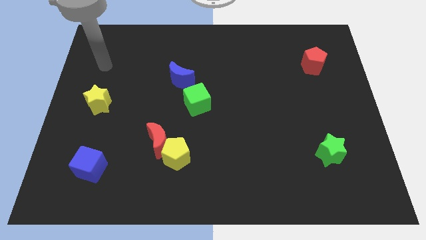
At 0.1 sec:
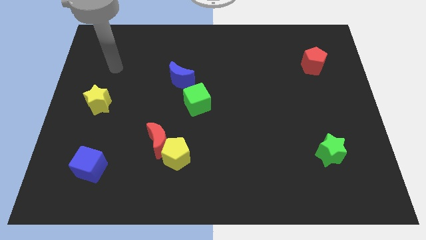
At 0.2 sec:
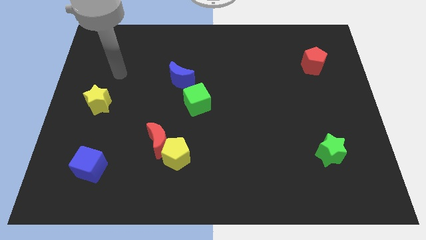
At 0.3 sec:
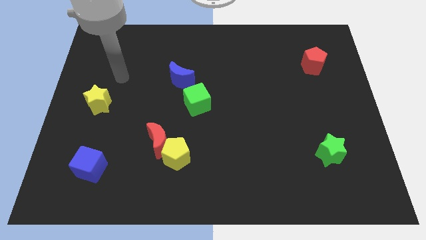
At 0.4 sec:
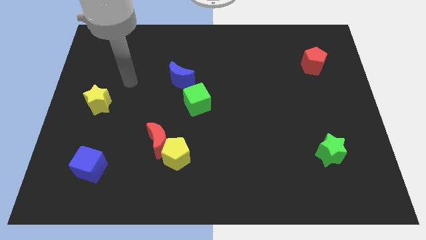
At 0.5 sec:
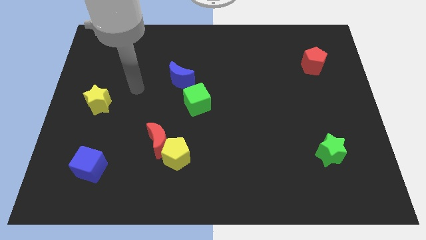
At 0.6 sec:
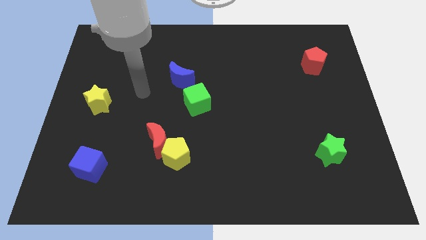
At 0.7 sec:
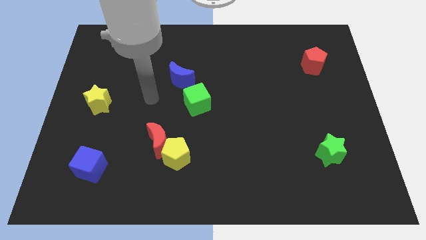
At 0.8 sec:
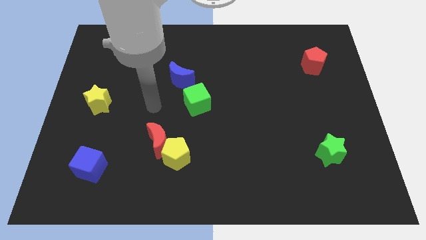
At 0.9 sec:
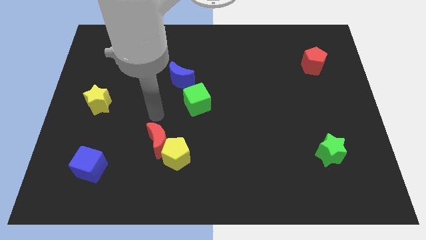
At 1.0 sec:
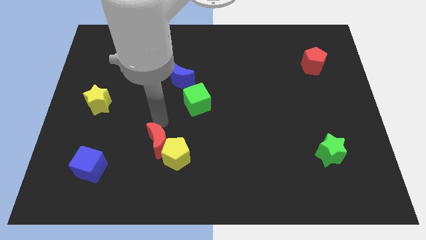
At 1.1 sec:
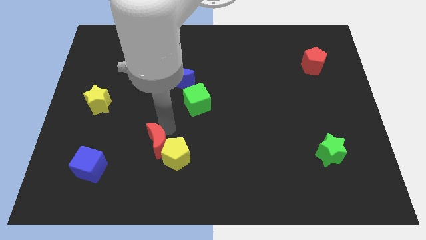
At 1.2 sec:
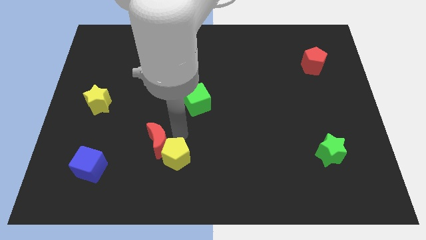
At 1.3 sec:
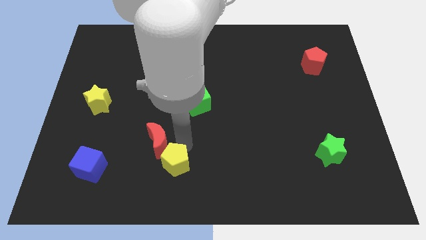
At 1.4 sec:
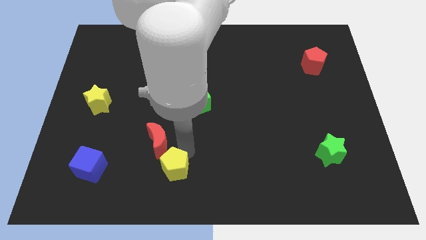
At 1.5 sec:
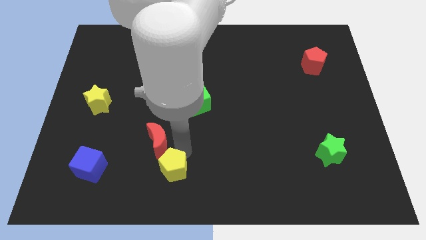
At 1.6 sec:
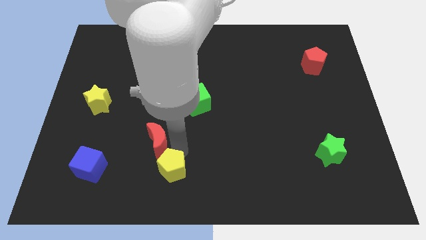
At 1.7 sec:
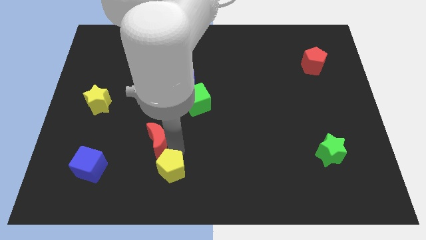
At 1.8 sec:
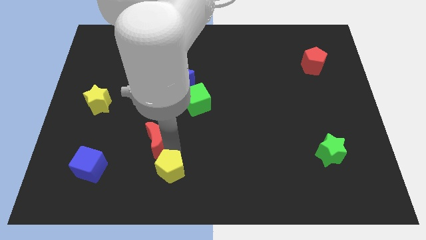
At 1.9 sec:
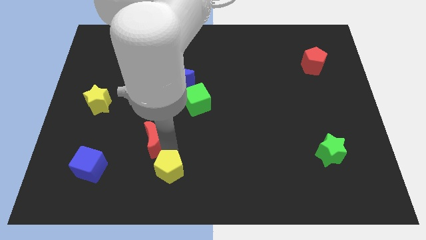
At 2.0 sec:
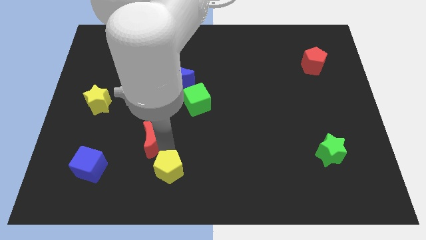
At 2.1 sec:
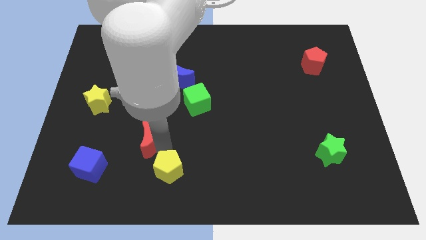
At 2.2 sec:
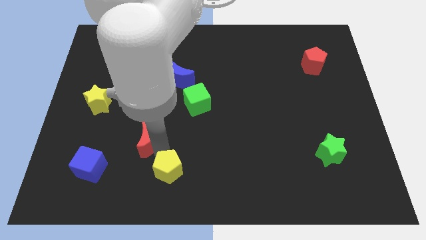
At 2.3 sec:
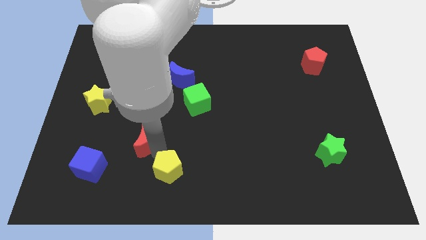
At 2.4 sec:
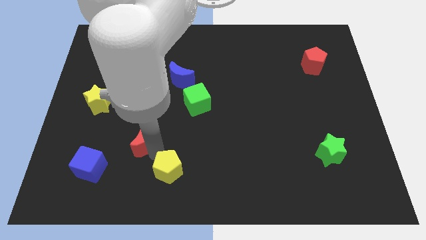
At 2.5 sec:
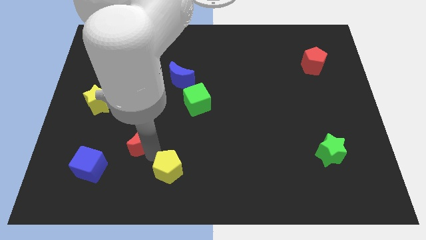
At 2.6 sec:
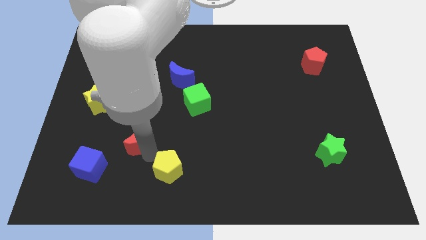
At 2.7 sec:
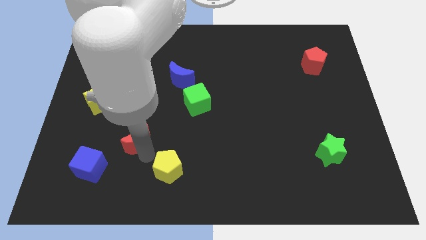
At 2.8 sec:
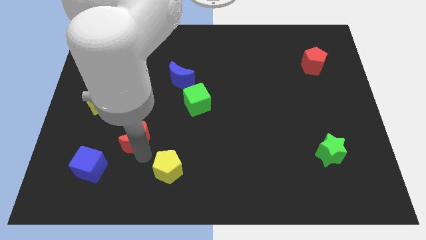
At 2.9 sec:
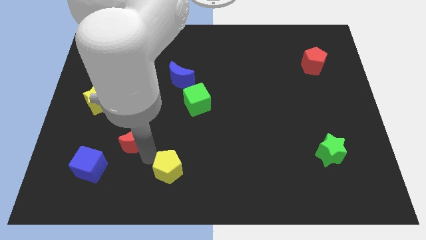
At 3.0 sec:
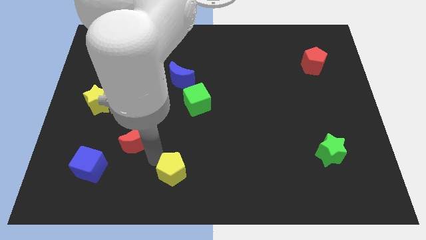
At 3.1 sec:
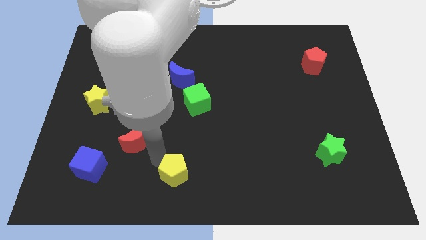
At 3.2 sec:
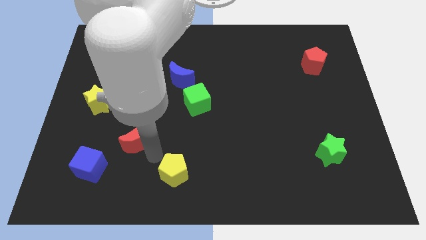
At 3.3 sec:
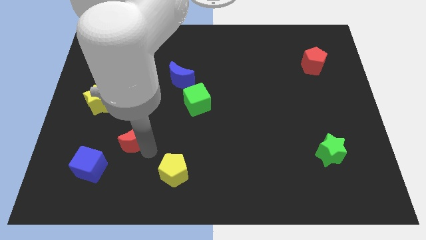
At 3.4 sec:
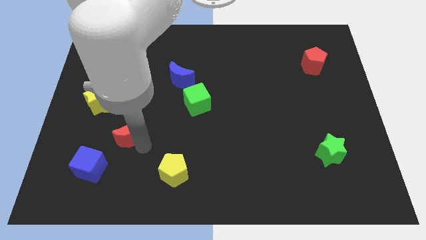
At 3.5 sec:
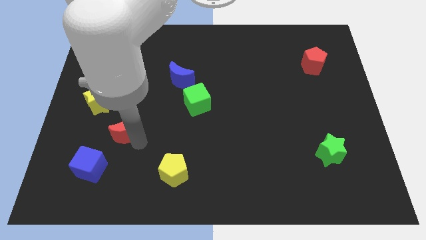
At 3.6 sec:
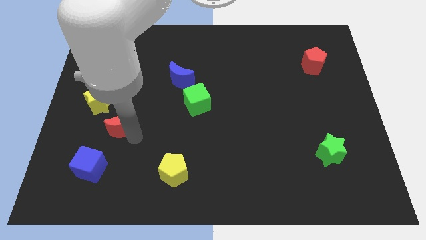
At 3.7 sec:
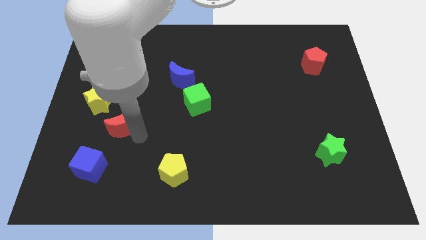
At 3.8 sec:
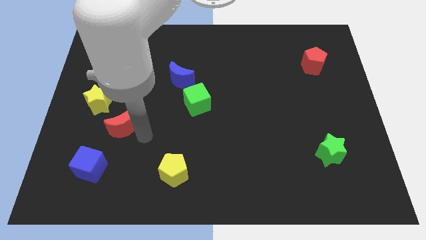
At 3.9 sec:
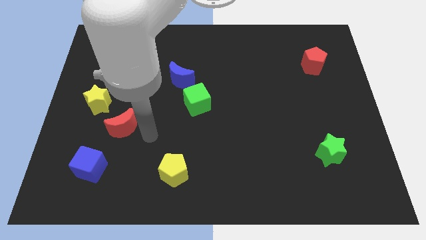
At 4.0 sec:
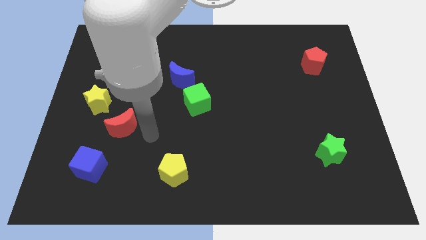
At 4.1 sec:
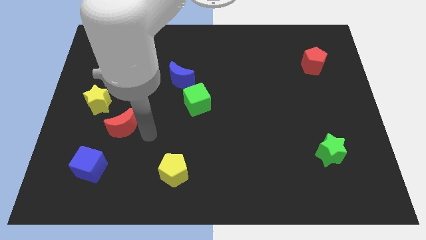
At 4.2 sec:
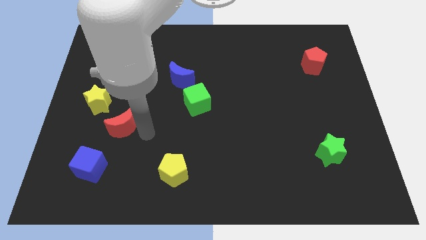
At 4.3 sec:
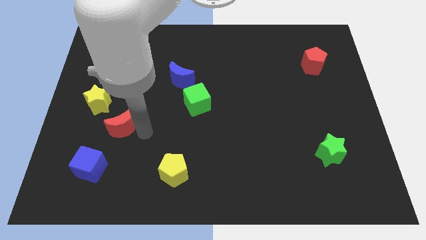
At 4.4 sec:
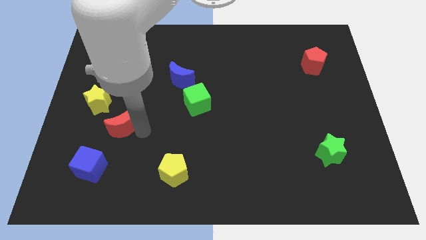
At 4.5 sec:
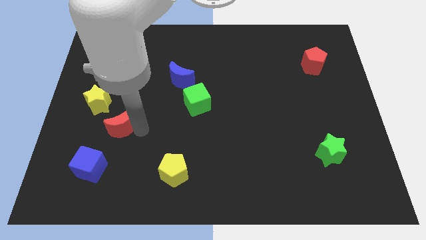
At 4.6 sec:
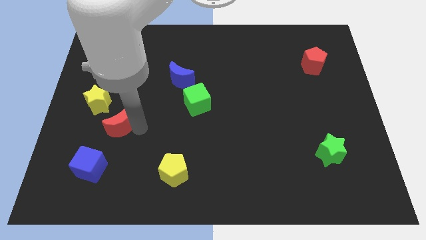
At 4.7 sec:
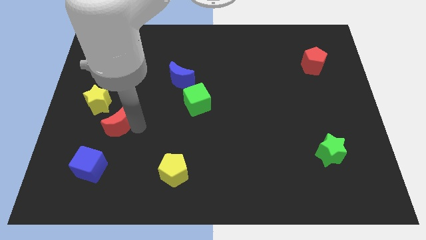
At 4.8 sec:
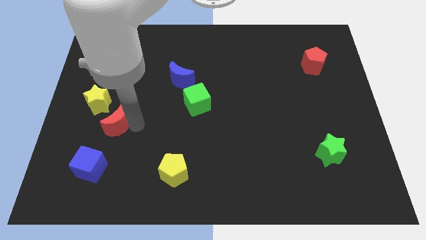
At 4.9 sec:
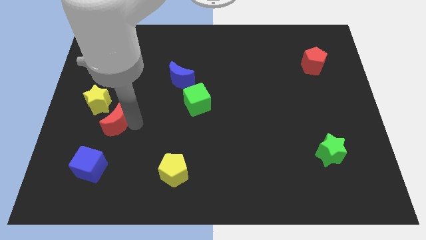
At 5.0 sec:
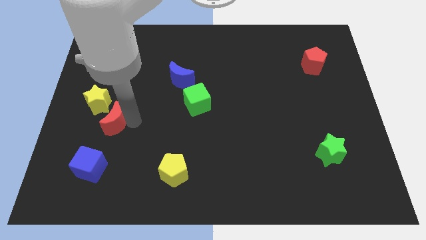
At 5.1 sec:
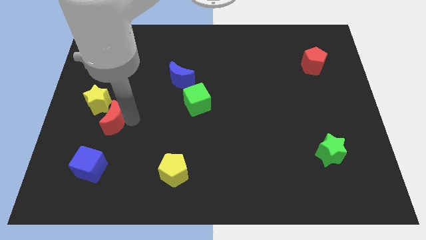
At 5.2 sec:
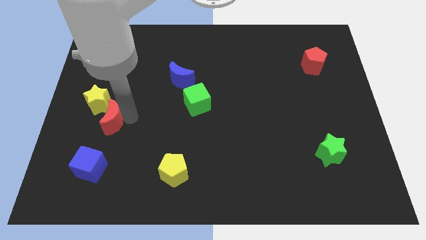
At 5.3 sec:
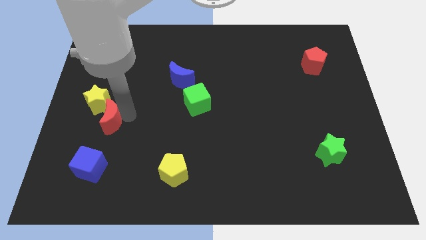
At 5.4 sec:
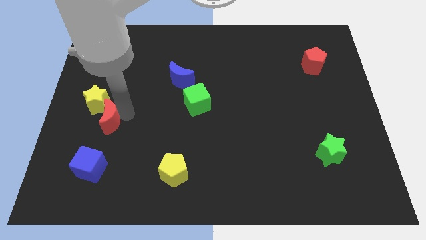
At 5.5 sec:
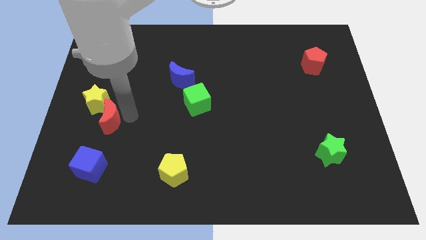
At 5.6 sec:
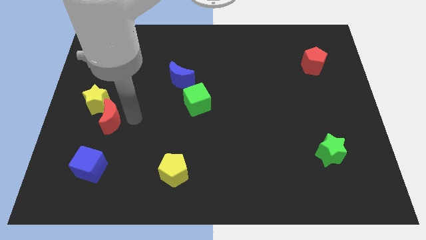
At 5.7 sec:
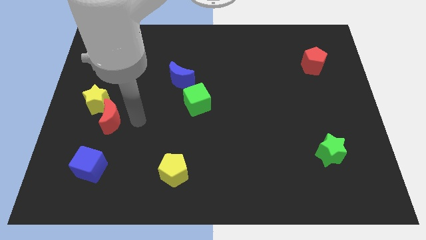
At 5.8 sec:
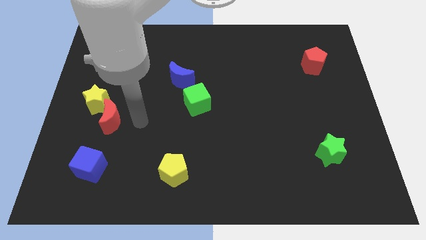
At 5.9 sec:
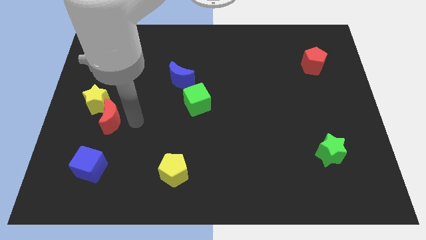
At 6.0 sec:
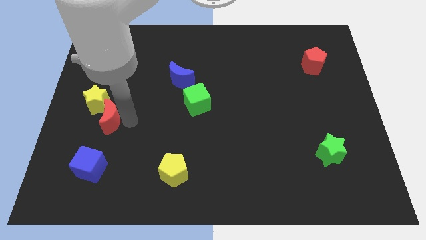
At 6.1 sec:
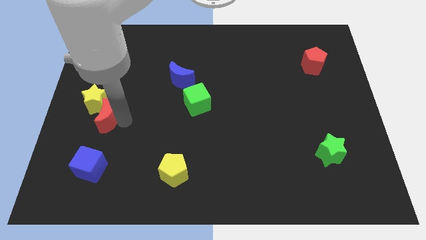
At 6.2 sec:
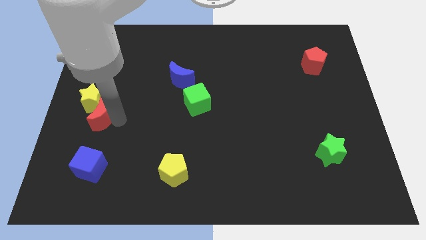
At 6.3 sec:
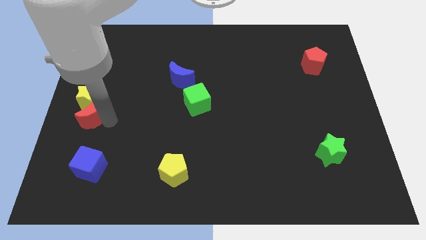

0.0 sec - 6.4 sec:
put the red moon to the left side
